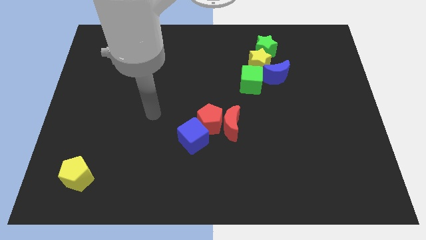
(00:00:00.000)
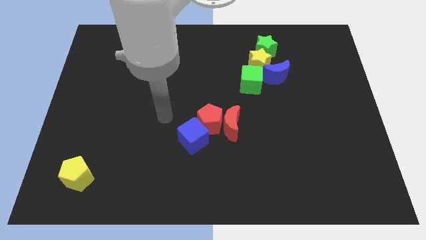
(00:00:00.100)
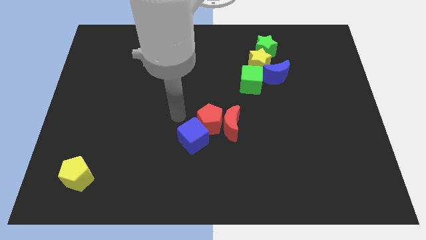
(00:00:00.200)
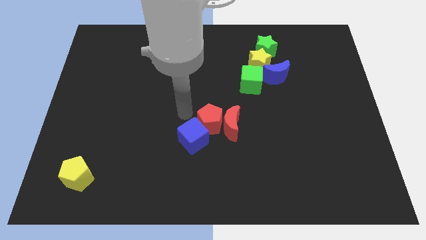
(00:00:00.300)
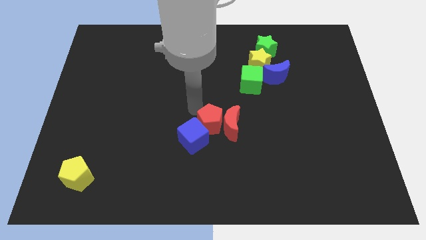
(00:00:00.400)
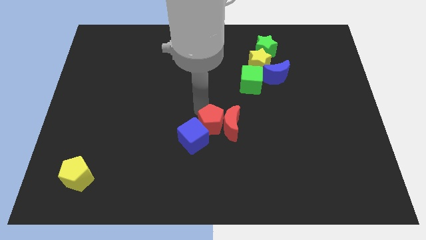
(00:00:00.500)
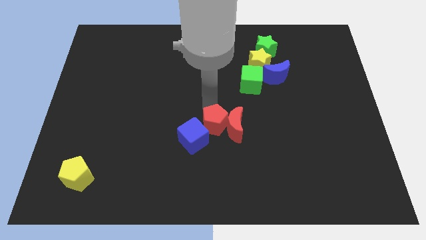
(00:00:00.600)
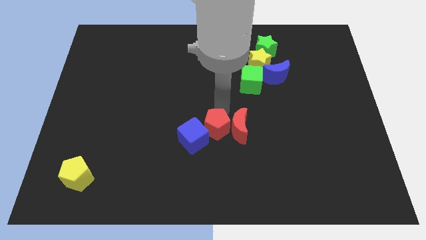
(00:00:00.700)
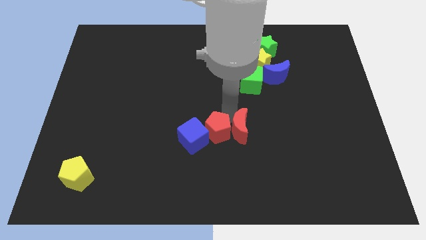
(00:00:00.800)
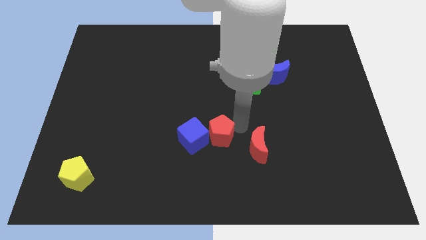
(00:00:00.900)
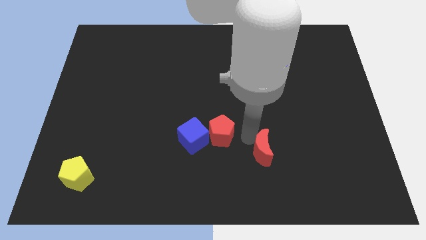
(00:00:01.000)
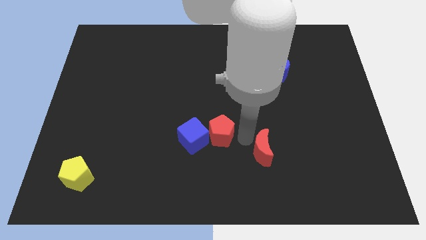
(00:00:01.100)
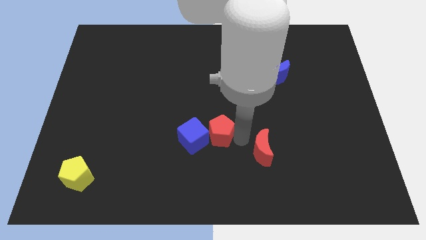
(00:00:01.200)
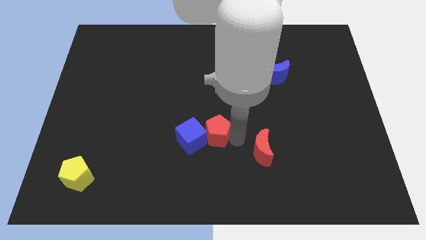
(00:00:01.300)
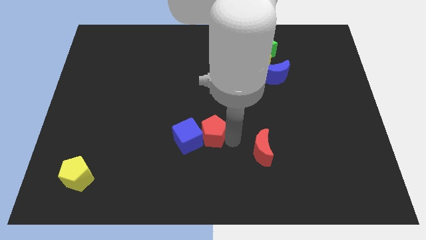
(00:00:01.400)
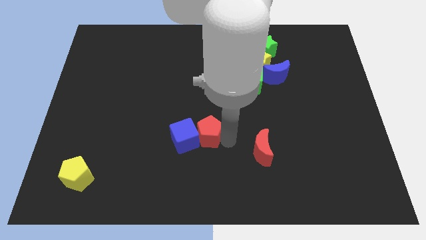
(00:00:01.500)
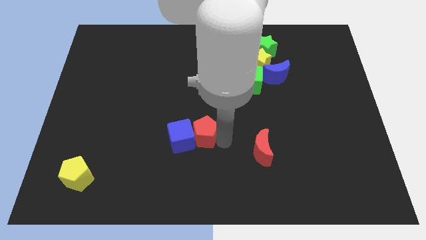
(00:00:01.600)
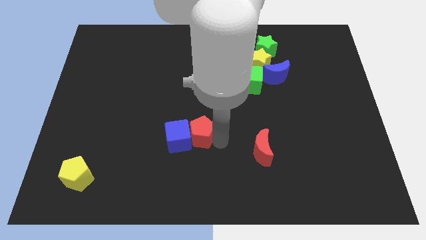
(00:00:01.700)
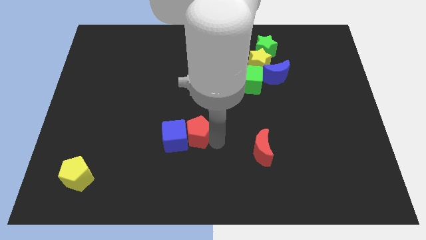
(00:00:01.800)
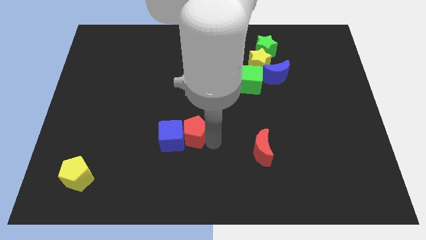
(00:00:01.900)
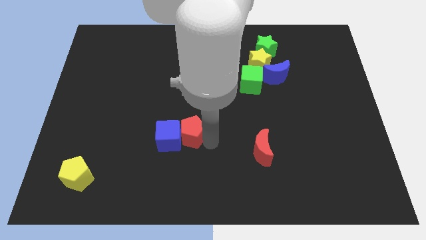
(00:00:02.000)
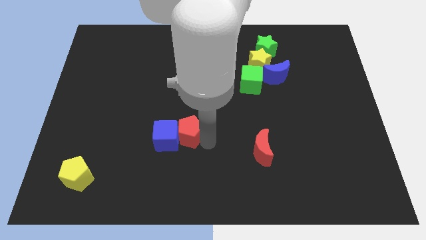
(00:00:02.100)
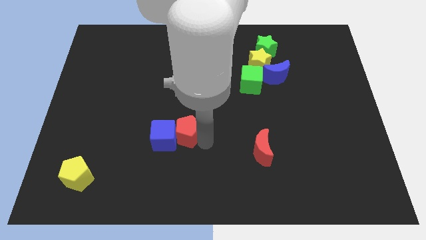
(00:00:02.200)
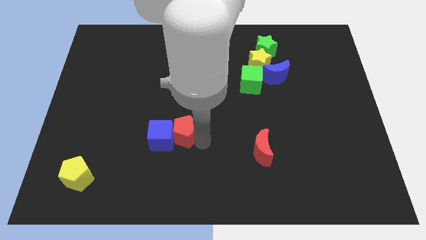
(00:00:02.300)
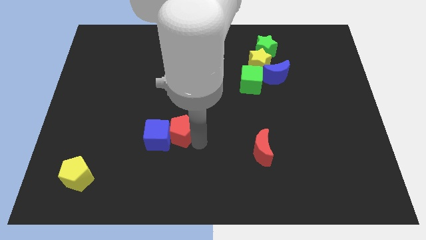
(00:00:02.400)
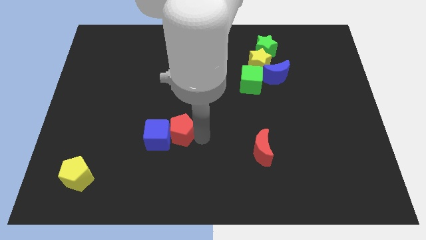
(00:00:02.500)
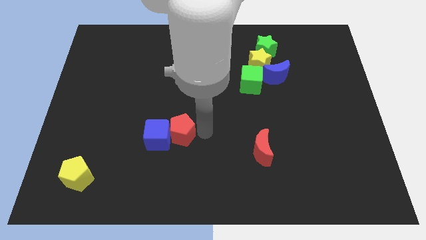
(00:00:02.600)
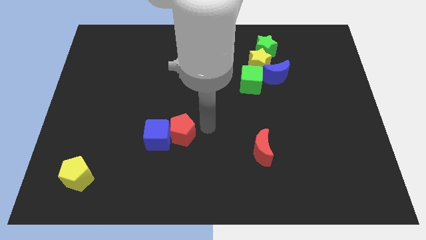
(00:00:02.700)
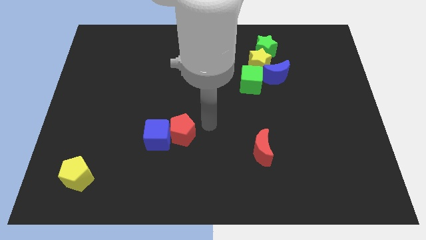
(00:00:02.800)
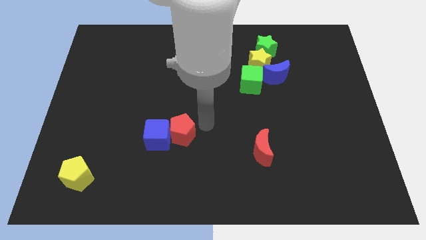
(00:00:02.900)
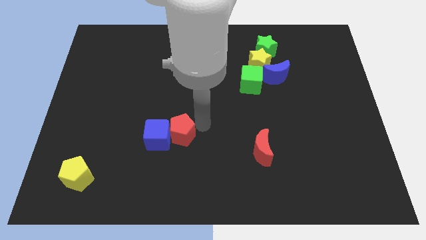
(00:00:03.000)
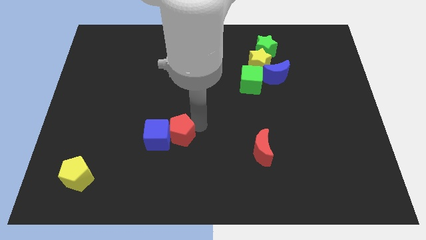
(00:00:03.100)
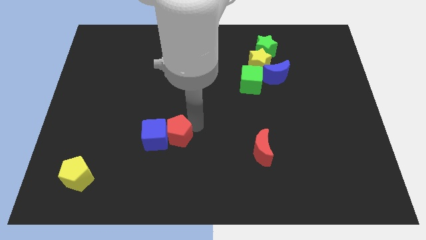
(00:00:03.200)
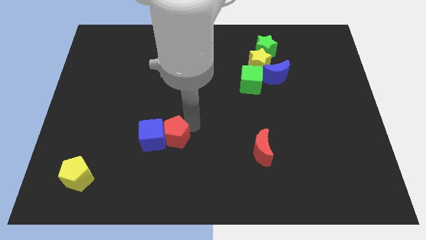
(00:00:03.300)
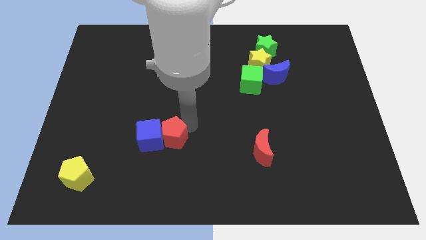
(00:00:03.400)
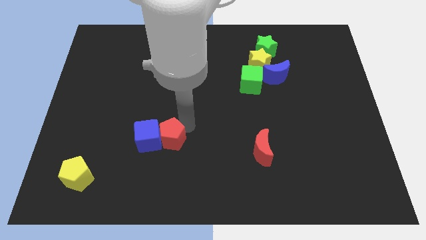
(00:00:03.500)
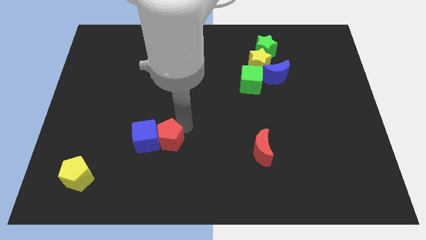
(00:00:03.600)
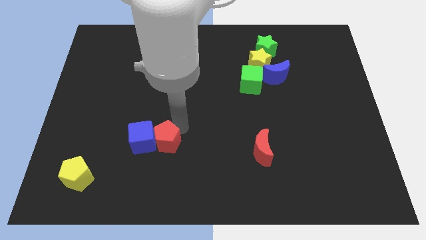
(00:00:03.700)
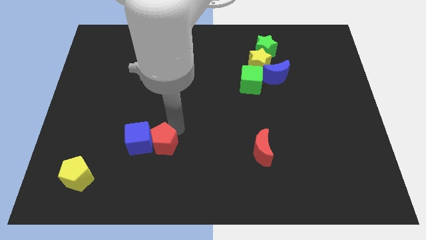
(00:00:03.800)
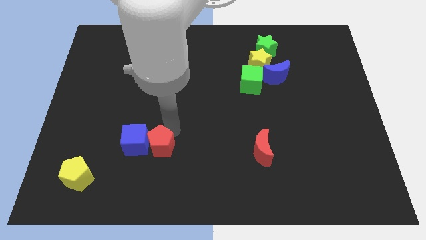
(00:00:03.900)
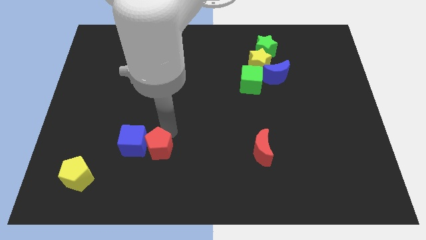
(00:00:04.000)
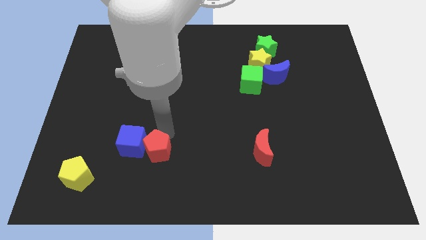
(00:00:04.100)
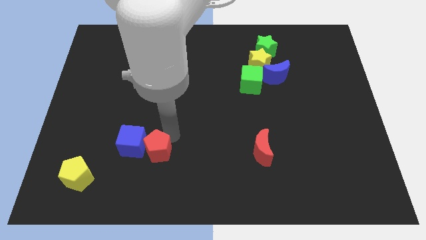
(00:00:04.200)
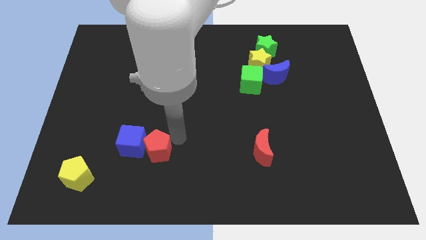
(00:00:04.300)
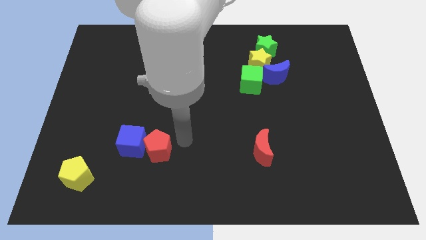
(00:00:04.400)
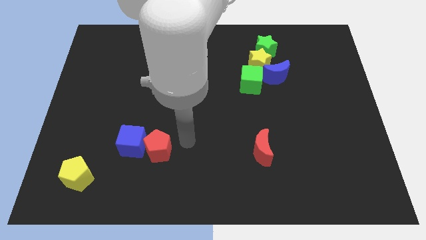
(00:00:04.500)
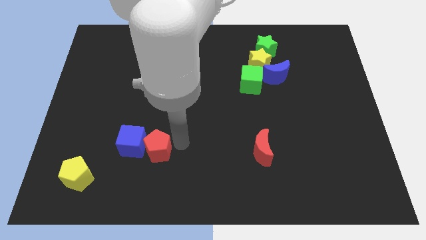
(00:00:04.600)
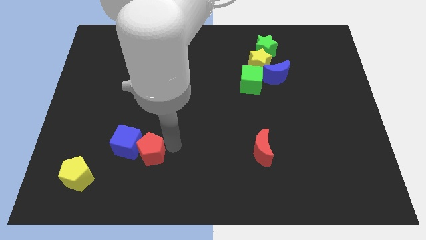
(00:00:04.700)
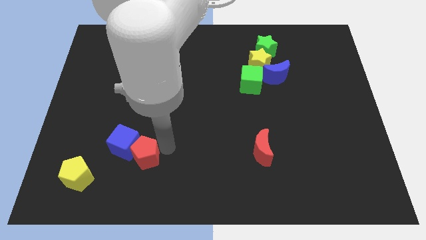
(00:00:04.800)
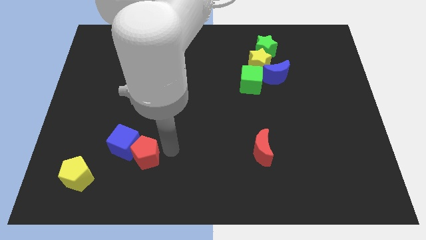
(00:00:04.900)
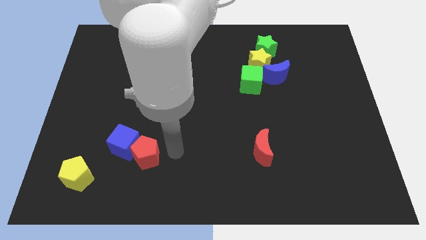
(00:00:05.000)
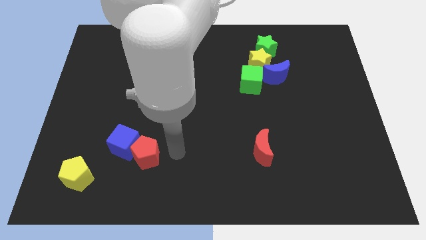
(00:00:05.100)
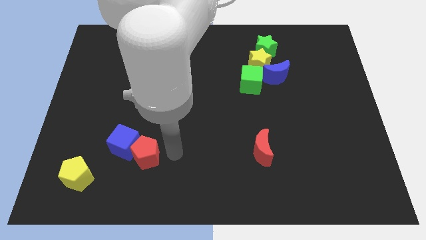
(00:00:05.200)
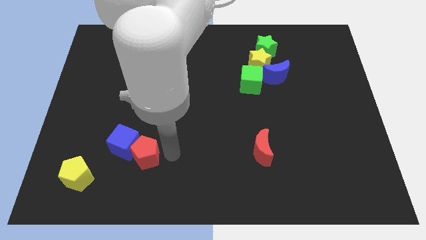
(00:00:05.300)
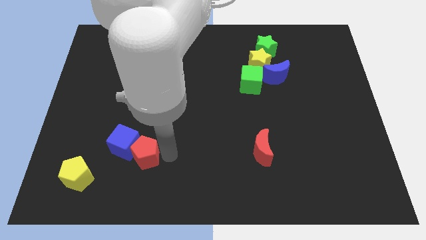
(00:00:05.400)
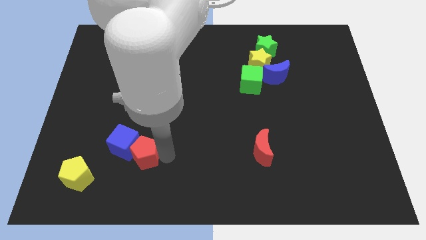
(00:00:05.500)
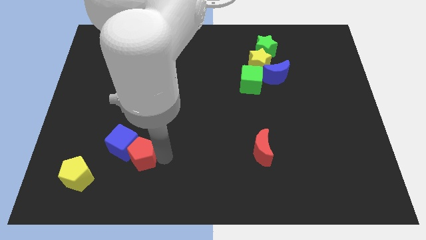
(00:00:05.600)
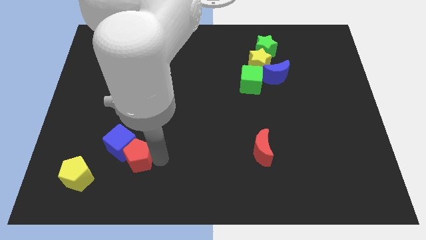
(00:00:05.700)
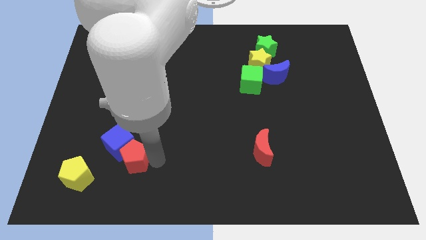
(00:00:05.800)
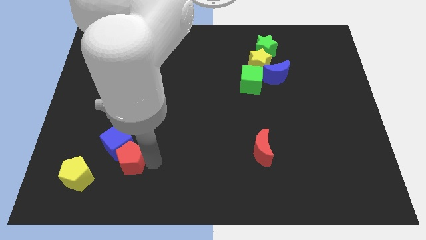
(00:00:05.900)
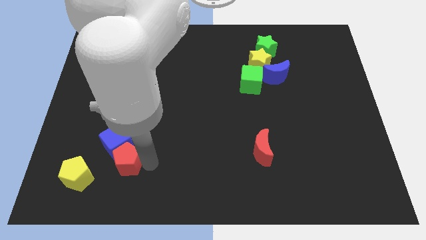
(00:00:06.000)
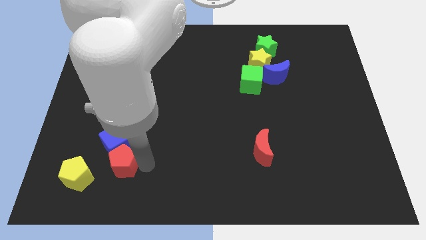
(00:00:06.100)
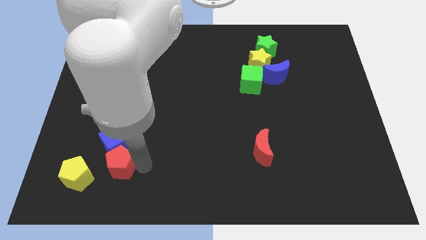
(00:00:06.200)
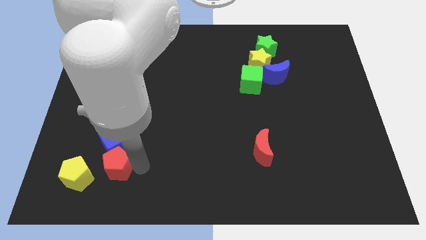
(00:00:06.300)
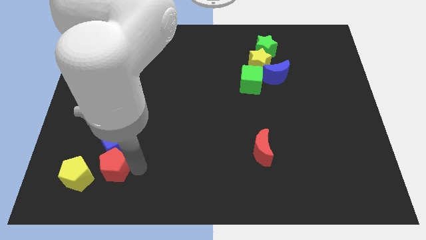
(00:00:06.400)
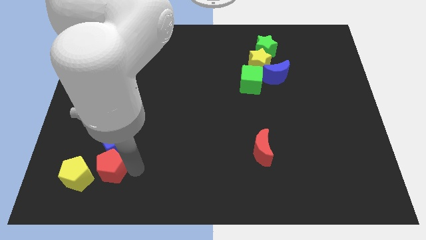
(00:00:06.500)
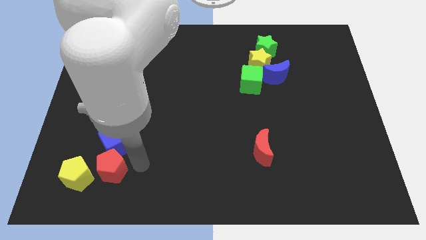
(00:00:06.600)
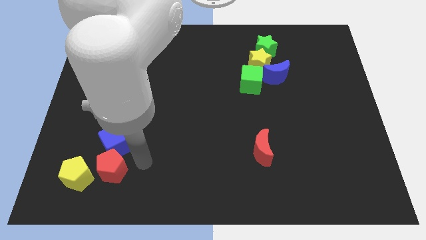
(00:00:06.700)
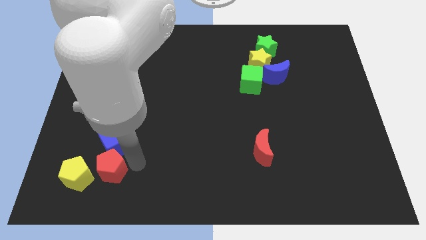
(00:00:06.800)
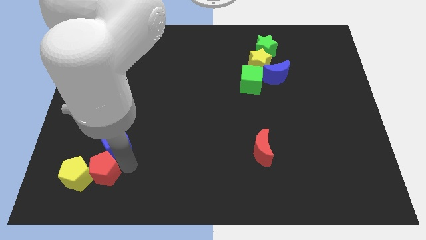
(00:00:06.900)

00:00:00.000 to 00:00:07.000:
slide the red pentagon towards the yellow pentagon

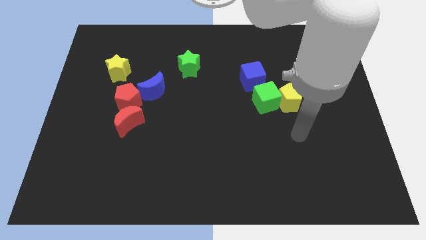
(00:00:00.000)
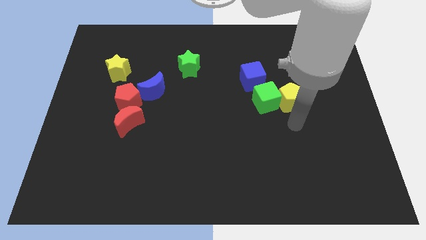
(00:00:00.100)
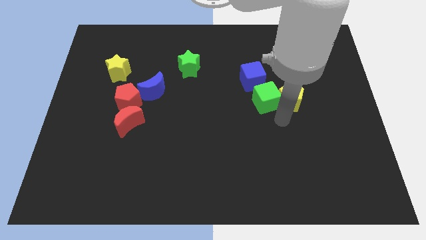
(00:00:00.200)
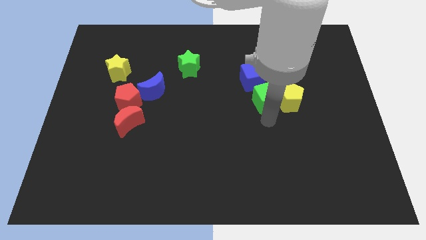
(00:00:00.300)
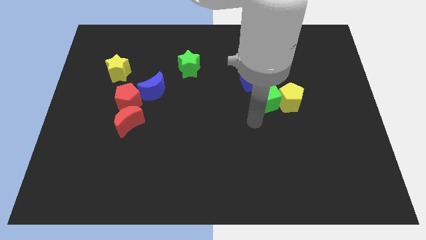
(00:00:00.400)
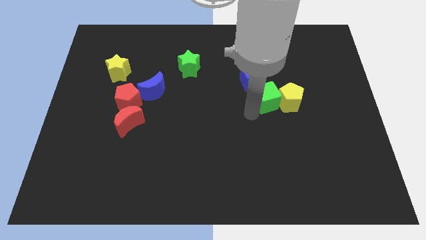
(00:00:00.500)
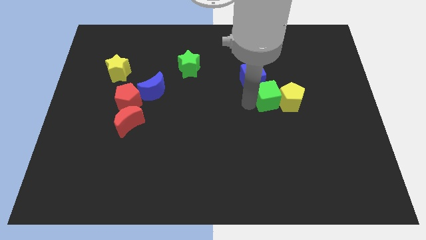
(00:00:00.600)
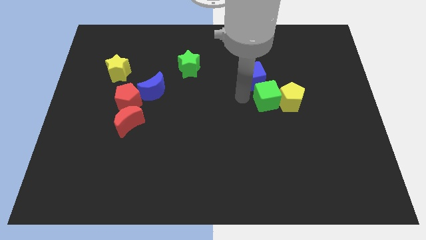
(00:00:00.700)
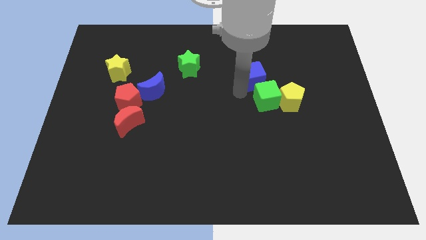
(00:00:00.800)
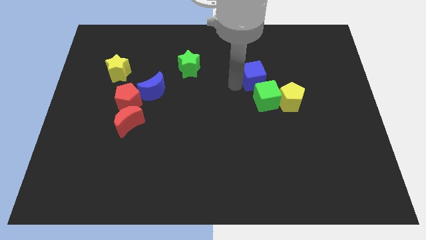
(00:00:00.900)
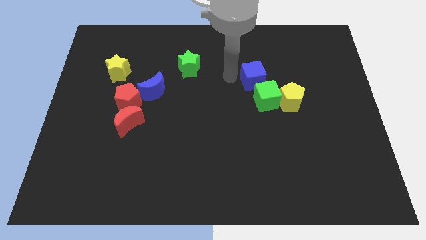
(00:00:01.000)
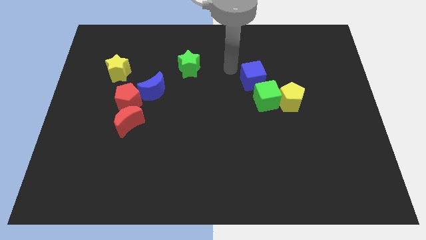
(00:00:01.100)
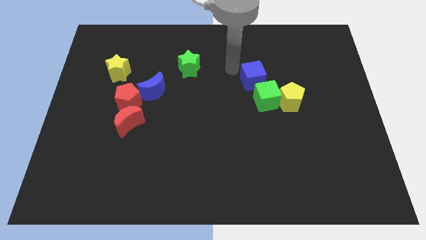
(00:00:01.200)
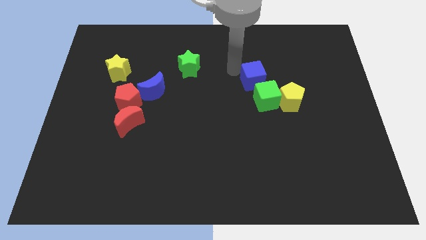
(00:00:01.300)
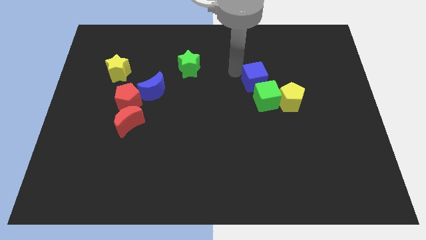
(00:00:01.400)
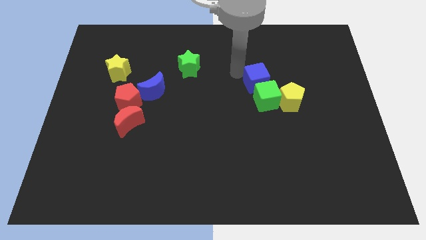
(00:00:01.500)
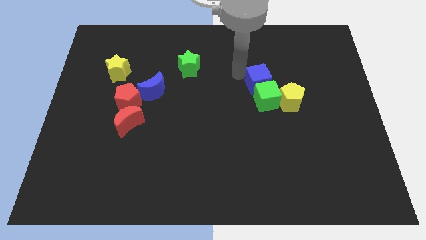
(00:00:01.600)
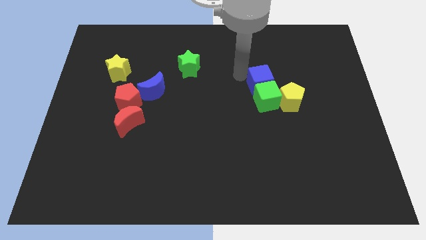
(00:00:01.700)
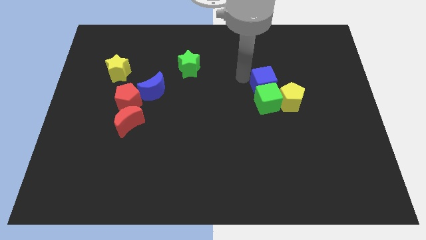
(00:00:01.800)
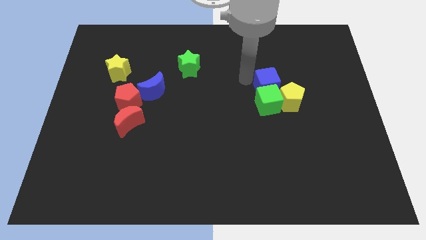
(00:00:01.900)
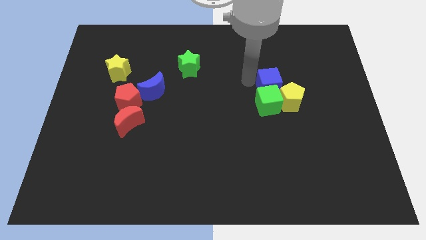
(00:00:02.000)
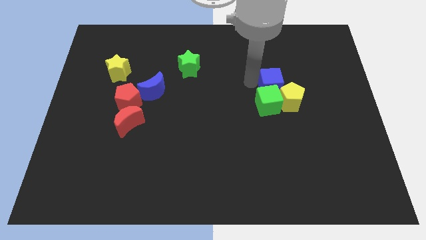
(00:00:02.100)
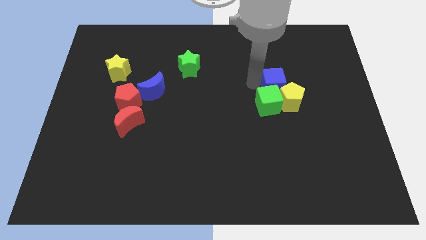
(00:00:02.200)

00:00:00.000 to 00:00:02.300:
push the blue cube to the yellow pentagon
